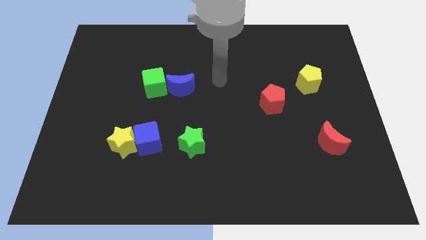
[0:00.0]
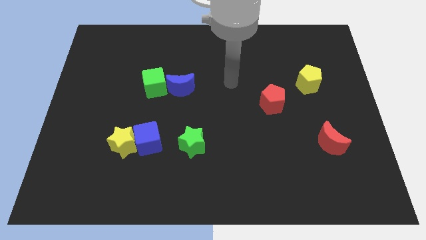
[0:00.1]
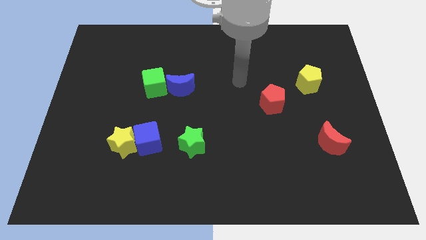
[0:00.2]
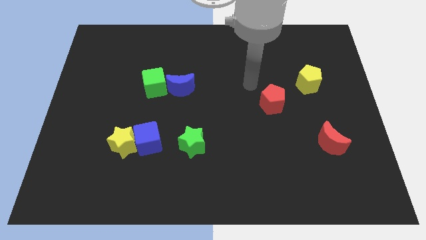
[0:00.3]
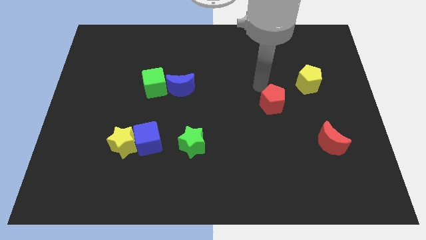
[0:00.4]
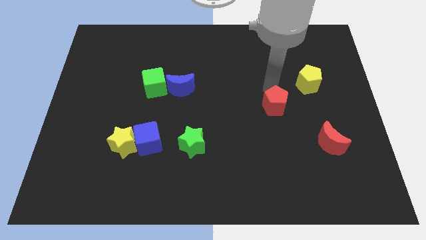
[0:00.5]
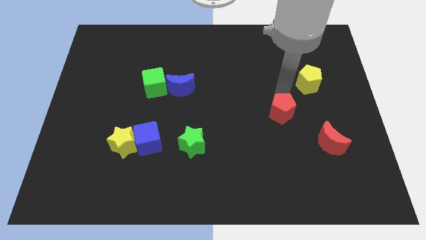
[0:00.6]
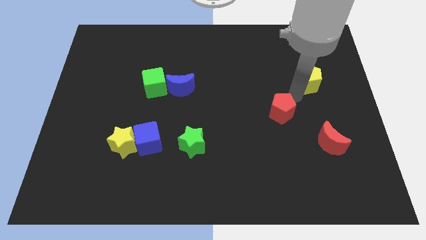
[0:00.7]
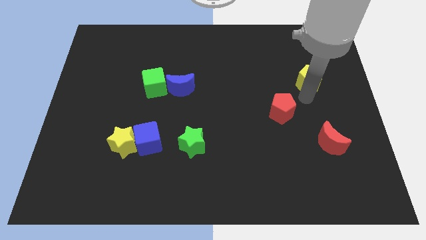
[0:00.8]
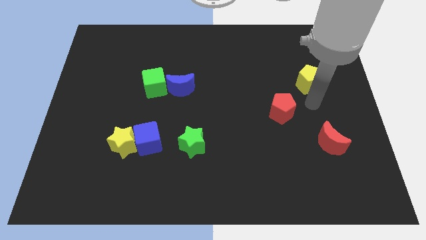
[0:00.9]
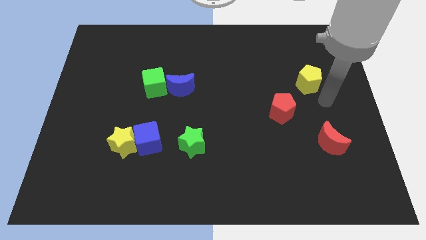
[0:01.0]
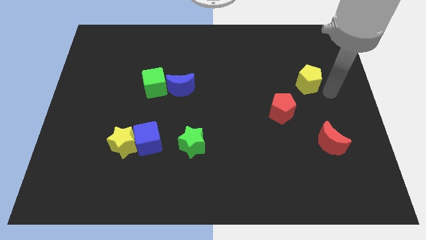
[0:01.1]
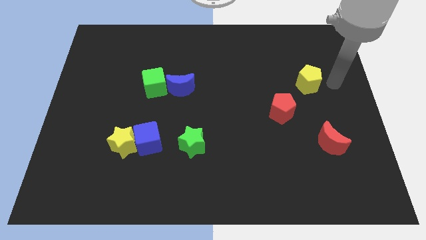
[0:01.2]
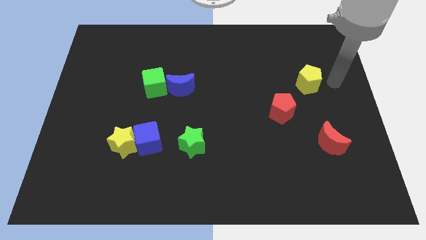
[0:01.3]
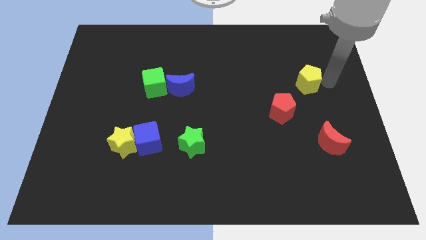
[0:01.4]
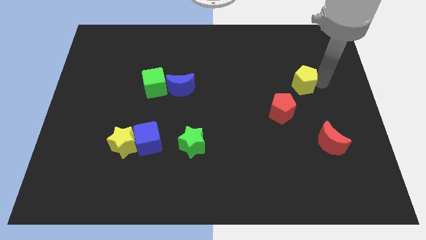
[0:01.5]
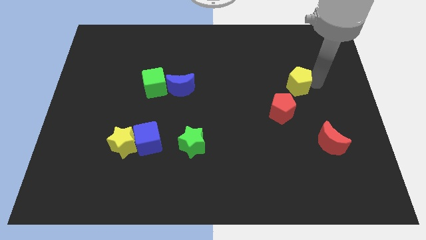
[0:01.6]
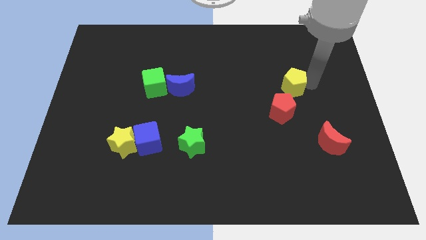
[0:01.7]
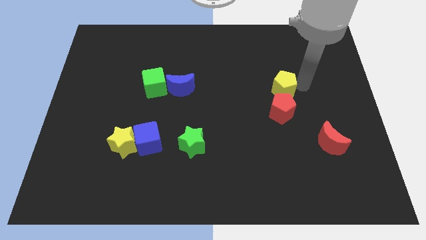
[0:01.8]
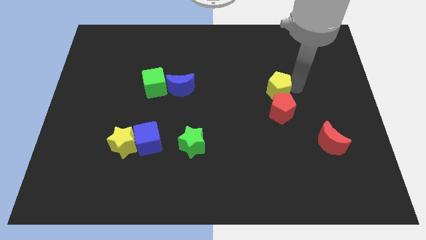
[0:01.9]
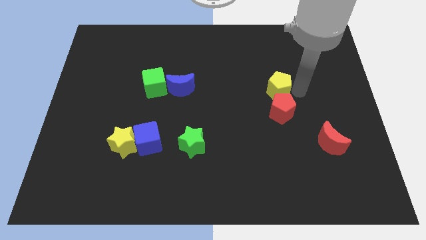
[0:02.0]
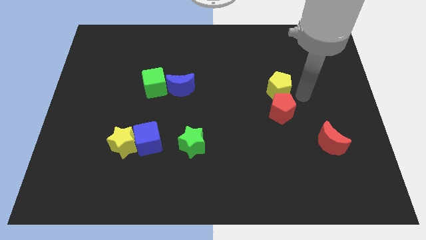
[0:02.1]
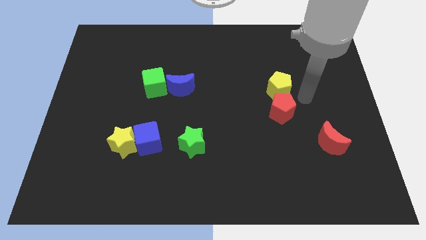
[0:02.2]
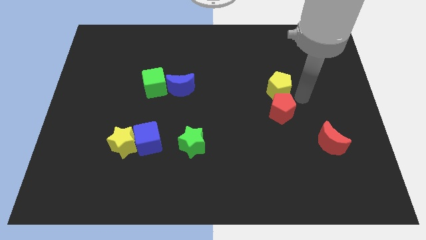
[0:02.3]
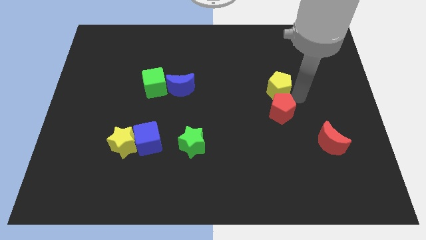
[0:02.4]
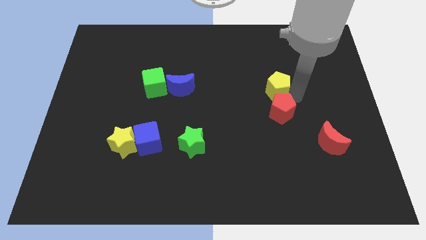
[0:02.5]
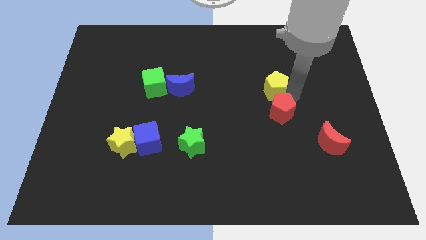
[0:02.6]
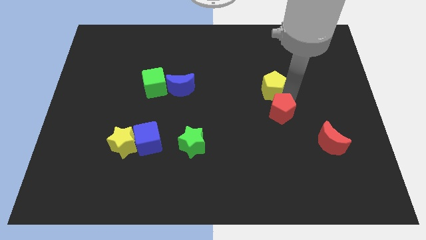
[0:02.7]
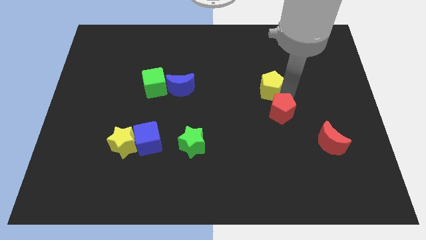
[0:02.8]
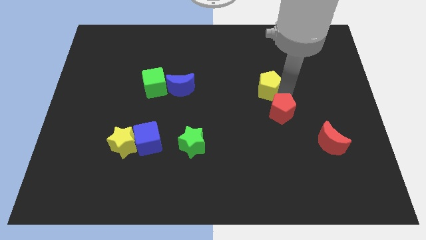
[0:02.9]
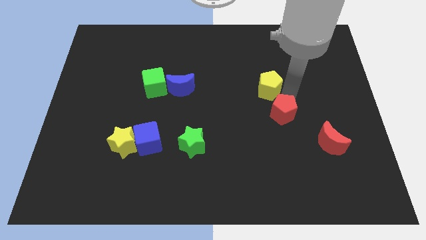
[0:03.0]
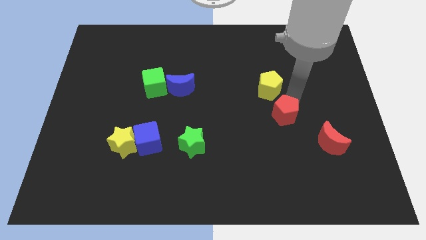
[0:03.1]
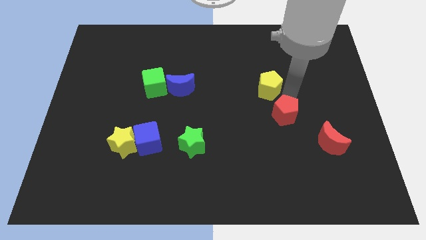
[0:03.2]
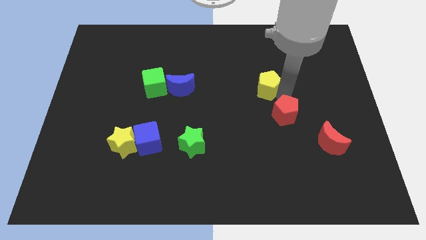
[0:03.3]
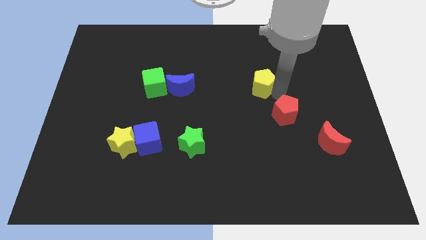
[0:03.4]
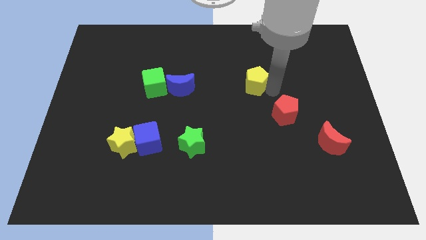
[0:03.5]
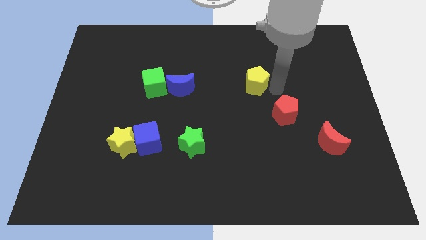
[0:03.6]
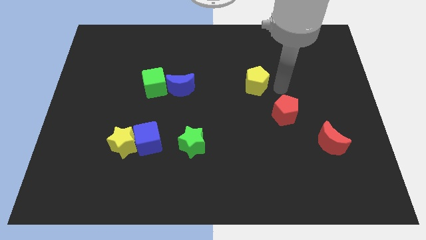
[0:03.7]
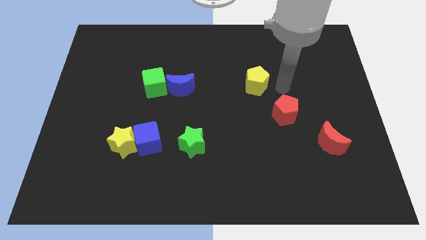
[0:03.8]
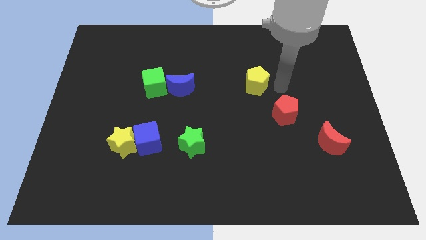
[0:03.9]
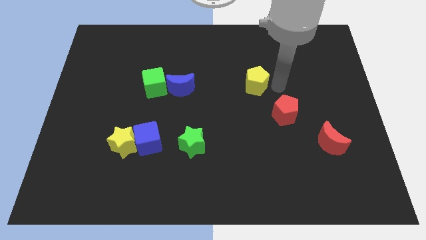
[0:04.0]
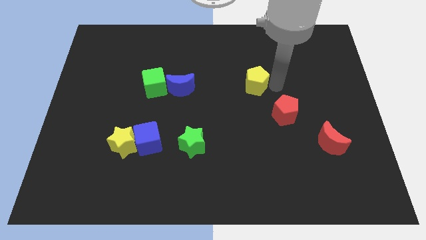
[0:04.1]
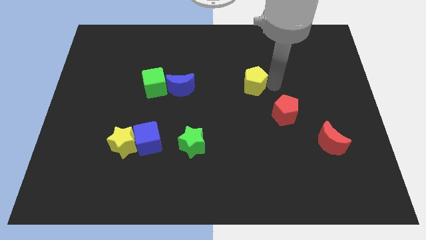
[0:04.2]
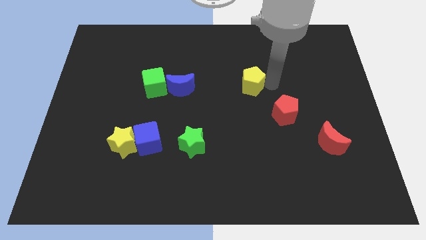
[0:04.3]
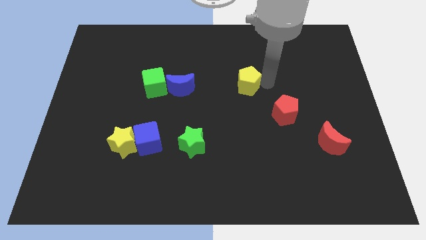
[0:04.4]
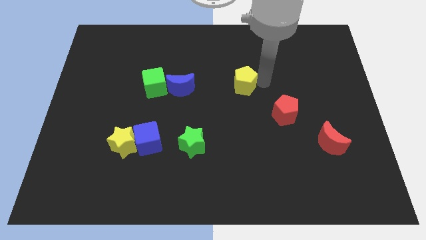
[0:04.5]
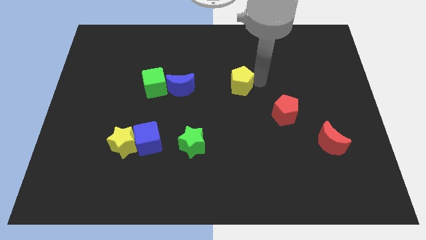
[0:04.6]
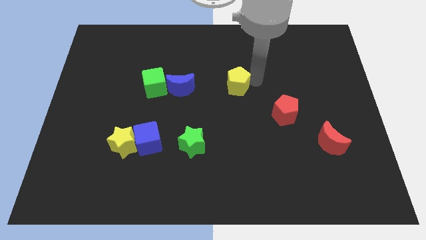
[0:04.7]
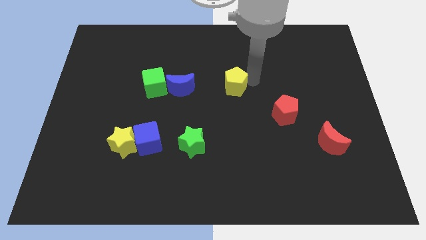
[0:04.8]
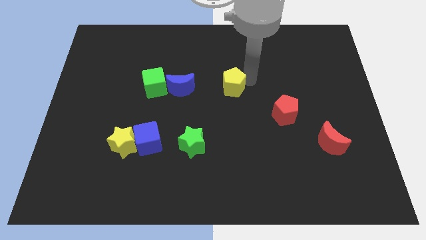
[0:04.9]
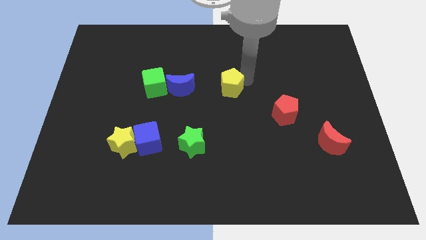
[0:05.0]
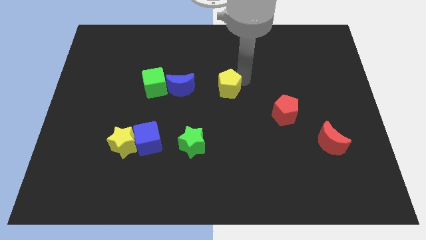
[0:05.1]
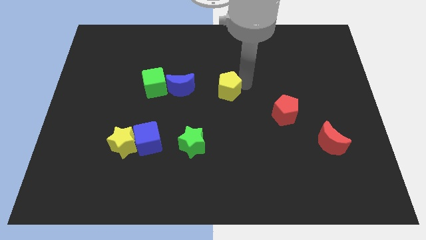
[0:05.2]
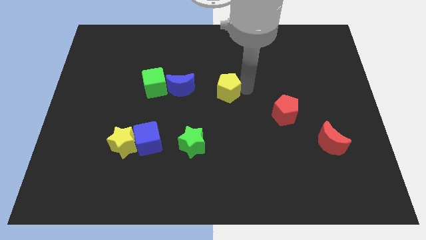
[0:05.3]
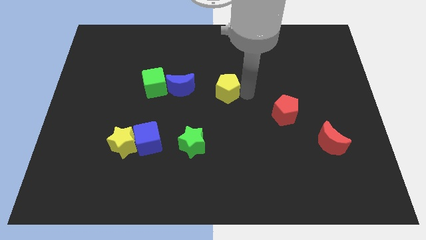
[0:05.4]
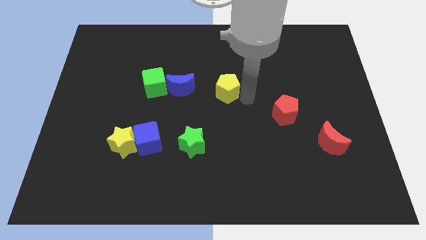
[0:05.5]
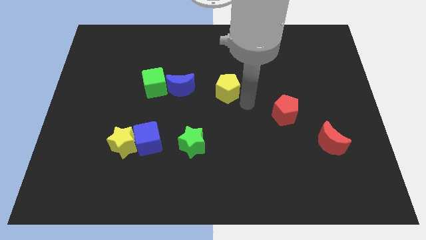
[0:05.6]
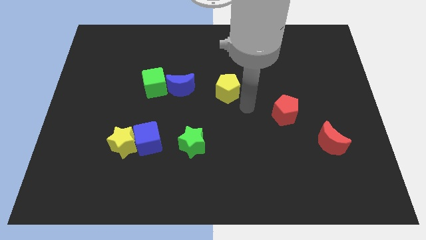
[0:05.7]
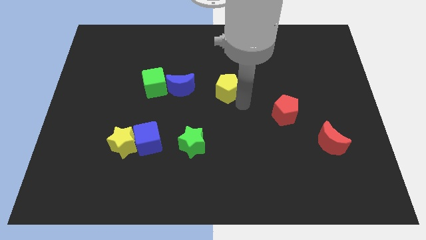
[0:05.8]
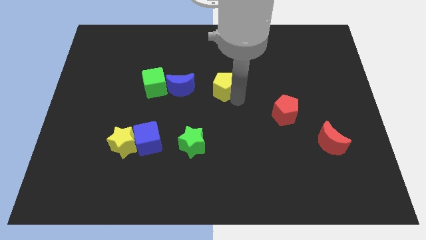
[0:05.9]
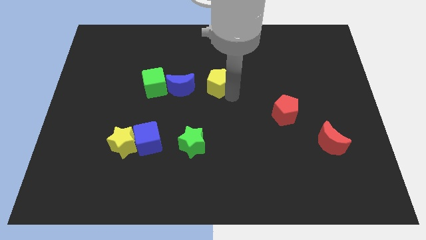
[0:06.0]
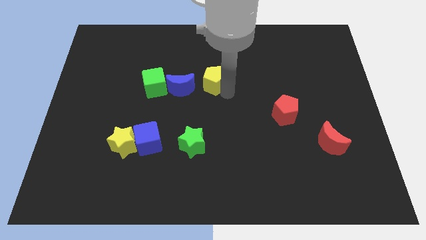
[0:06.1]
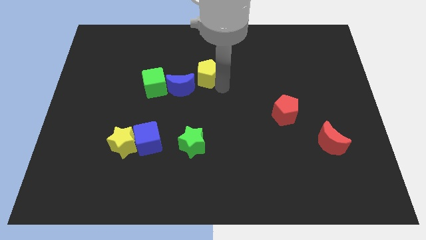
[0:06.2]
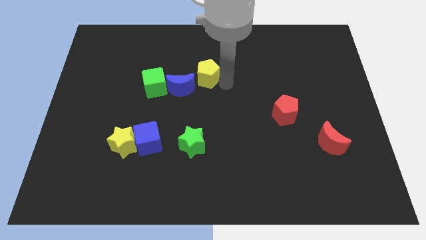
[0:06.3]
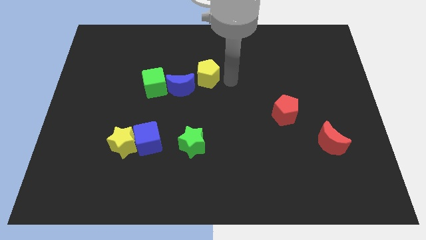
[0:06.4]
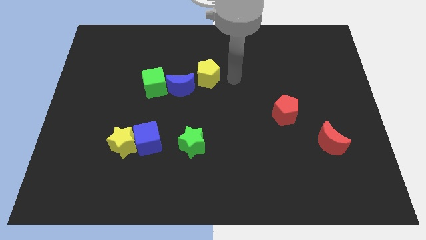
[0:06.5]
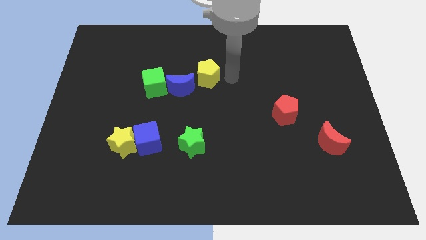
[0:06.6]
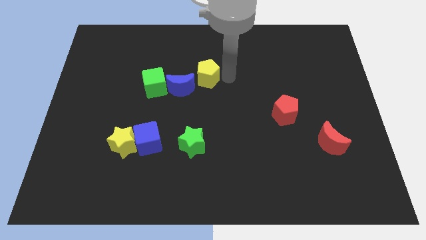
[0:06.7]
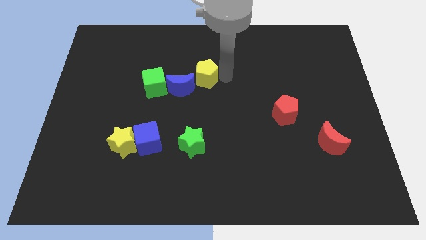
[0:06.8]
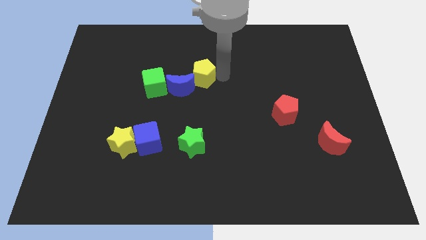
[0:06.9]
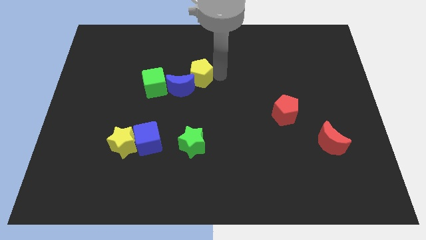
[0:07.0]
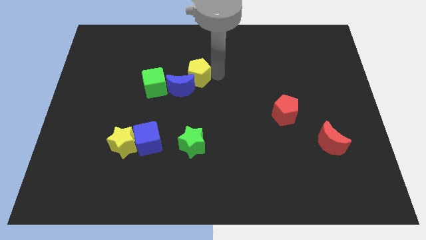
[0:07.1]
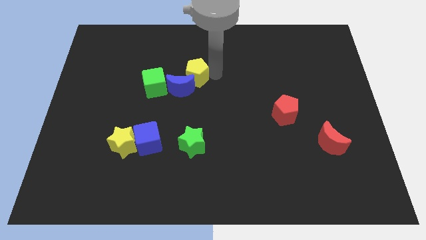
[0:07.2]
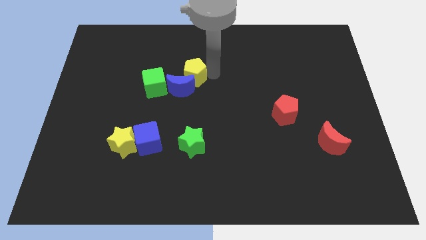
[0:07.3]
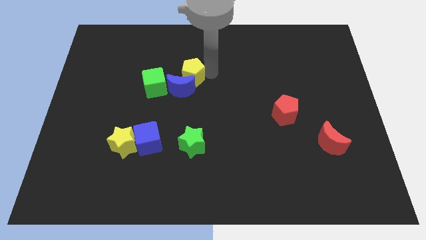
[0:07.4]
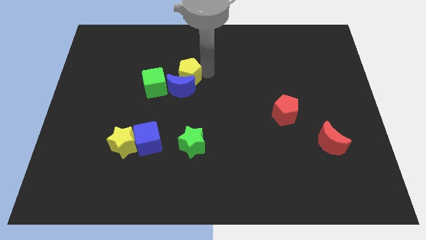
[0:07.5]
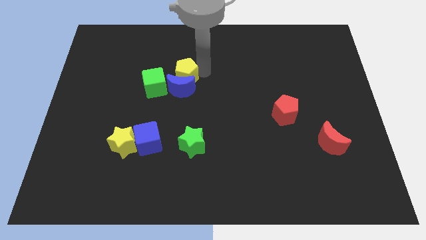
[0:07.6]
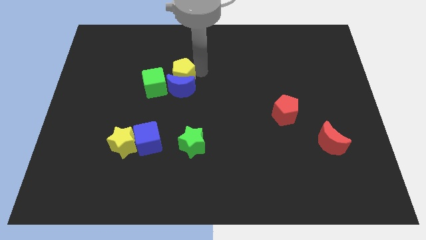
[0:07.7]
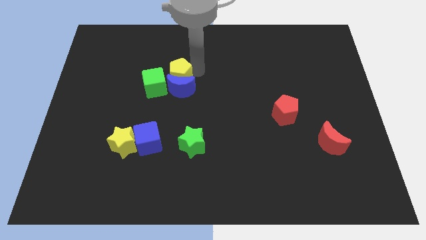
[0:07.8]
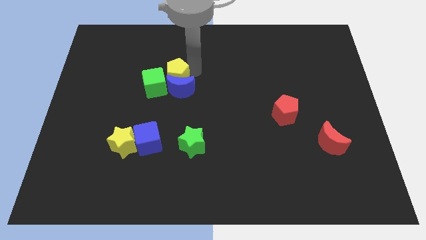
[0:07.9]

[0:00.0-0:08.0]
move the yellow pentagon close to the green cube
